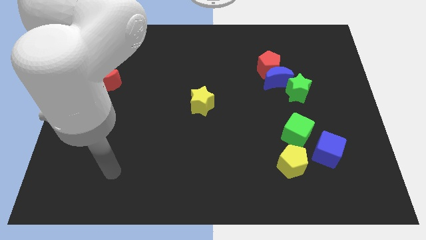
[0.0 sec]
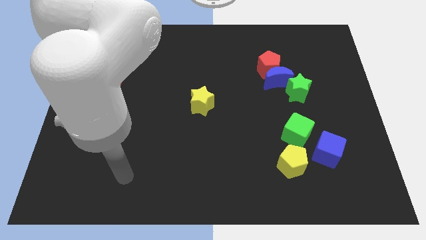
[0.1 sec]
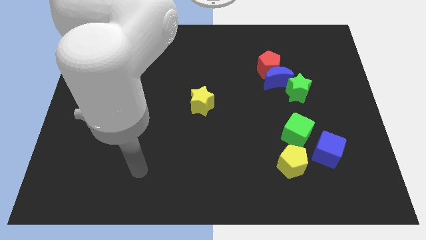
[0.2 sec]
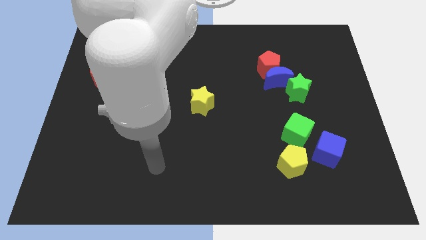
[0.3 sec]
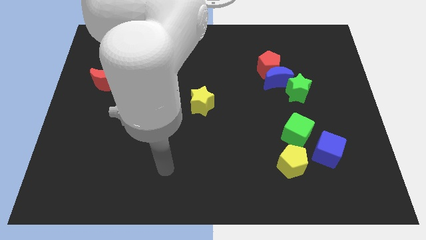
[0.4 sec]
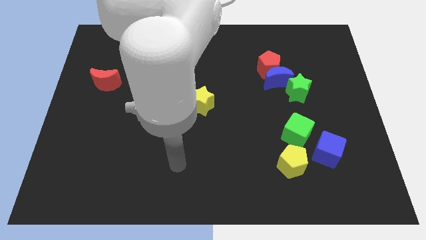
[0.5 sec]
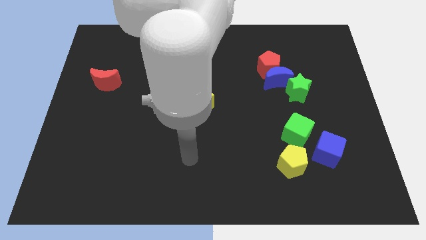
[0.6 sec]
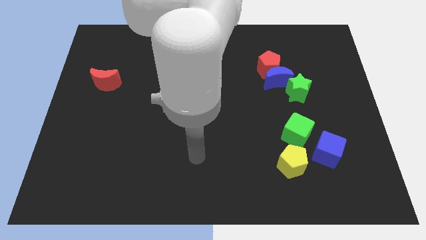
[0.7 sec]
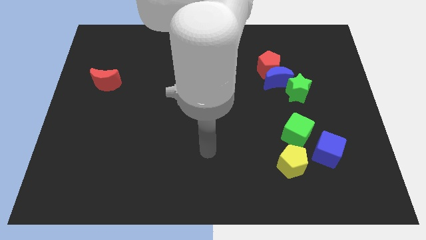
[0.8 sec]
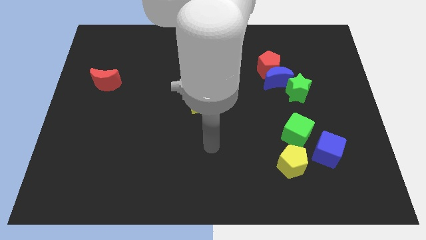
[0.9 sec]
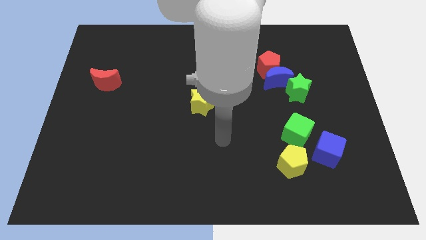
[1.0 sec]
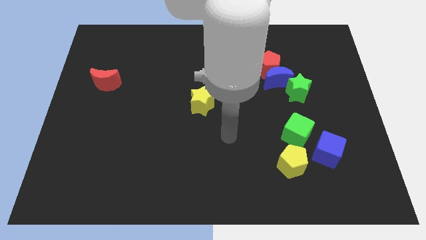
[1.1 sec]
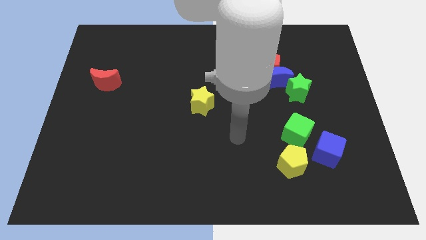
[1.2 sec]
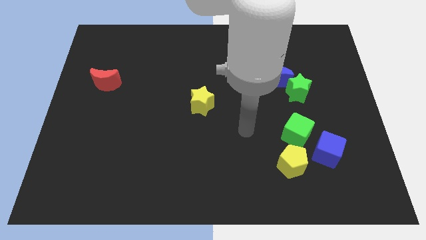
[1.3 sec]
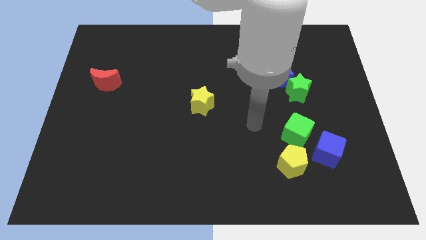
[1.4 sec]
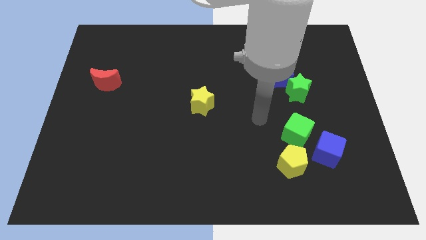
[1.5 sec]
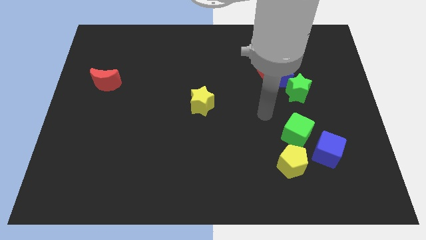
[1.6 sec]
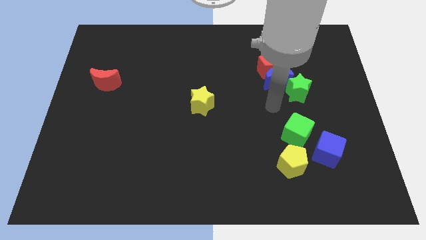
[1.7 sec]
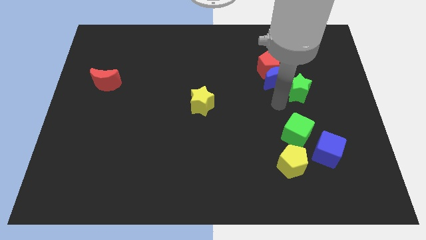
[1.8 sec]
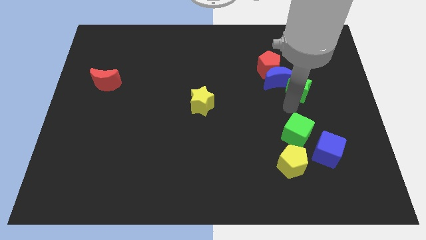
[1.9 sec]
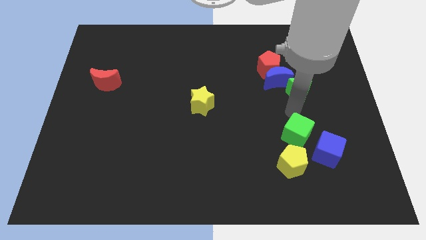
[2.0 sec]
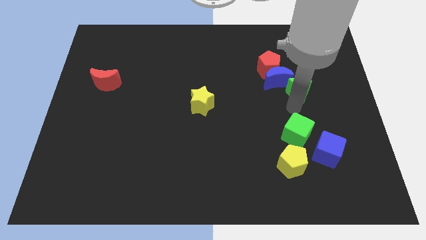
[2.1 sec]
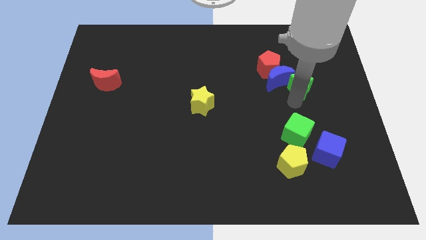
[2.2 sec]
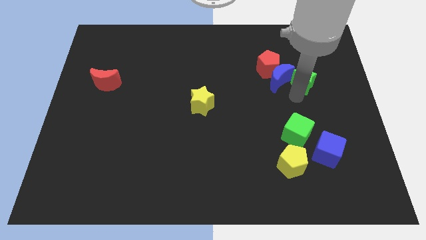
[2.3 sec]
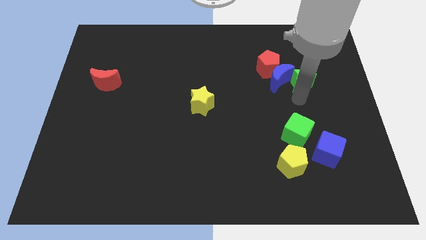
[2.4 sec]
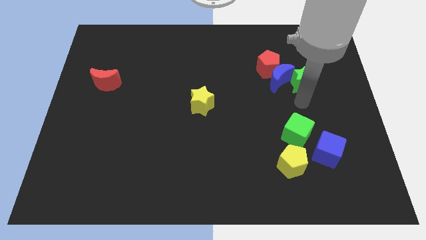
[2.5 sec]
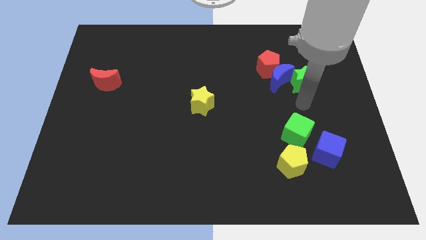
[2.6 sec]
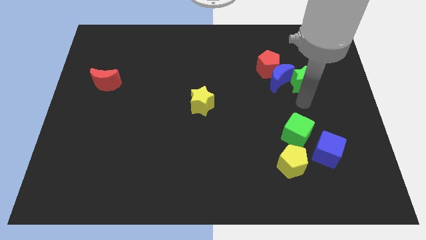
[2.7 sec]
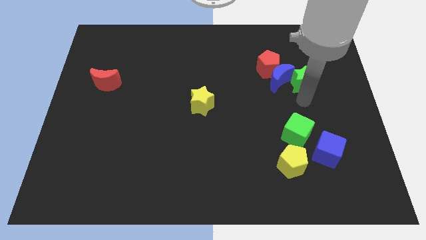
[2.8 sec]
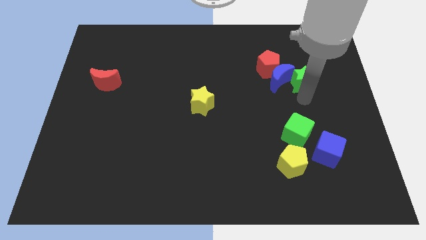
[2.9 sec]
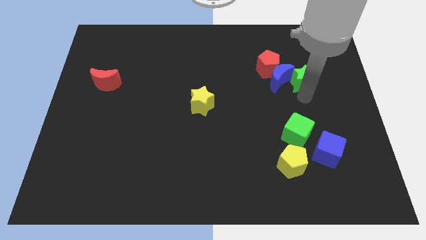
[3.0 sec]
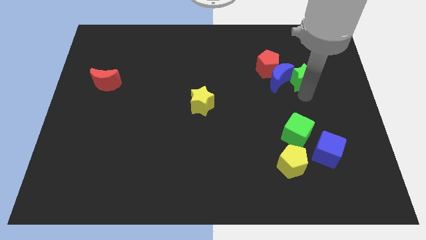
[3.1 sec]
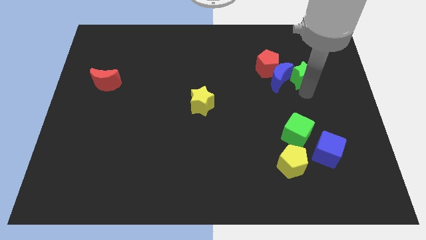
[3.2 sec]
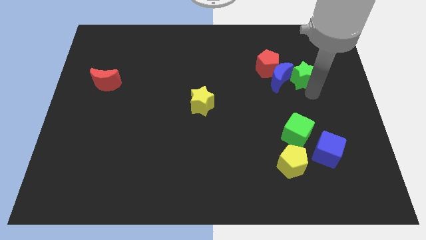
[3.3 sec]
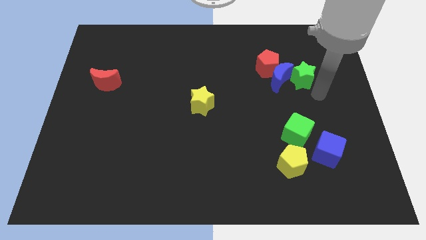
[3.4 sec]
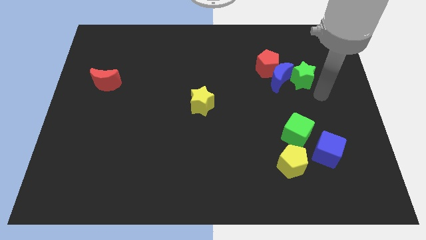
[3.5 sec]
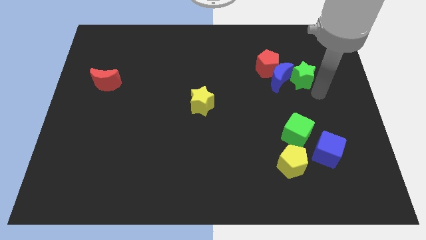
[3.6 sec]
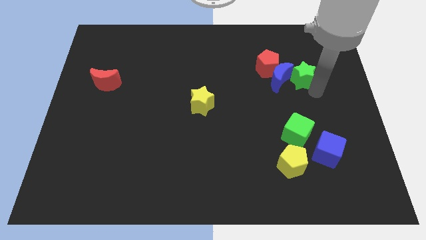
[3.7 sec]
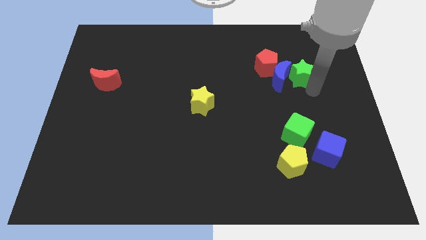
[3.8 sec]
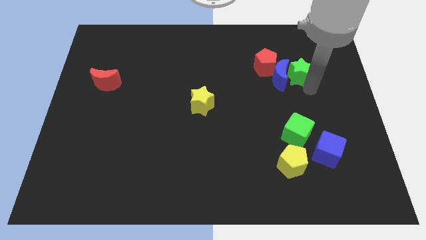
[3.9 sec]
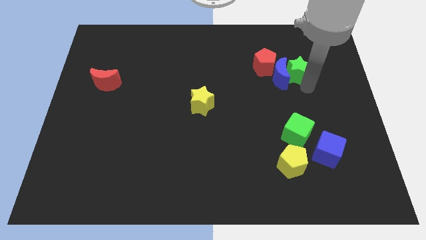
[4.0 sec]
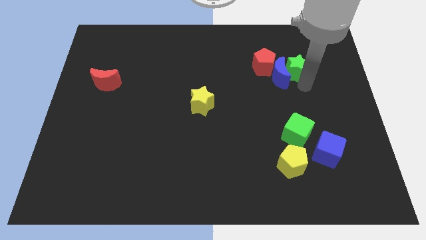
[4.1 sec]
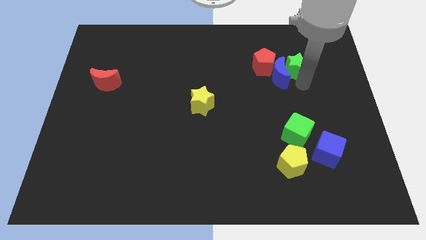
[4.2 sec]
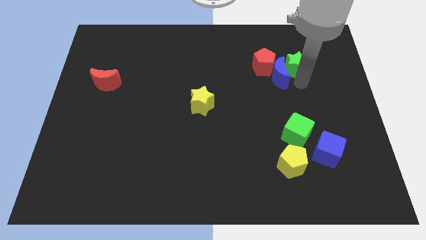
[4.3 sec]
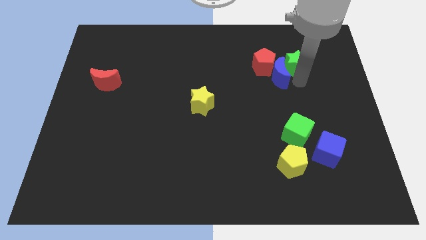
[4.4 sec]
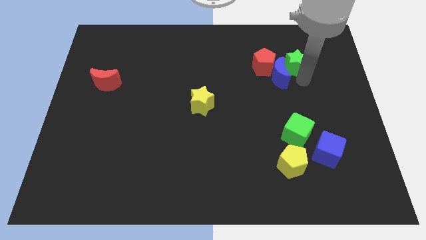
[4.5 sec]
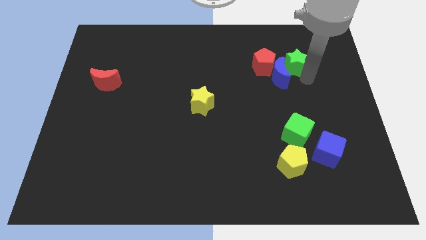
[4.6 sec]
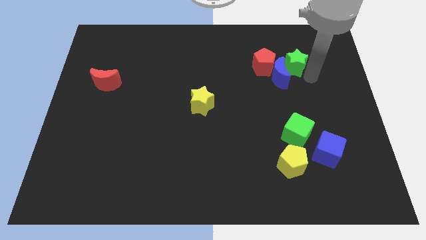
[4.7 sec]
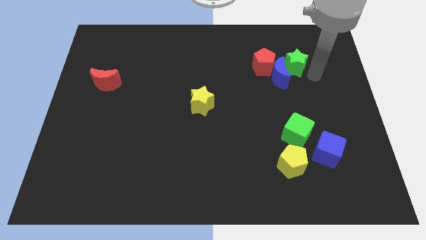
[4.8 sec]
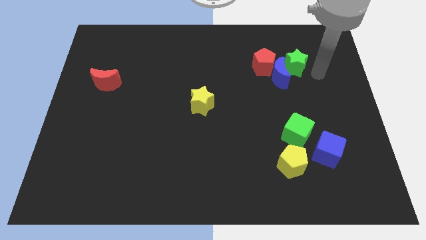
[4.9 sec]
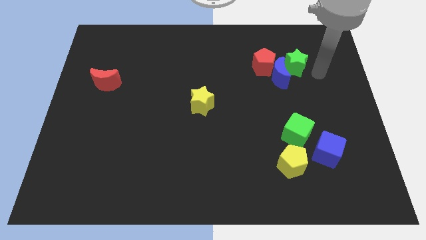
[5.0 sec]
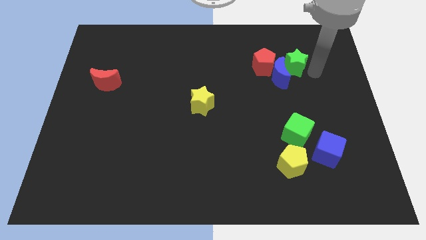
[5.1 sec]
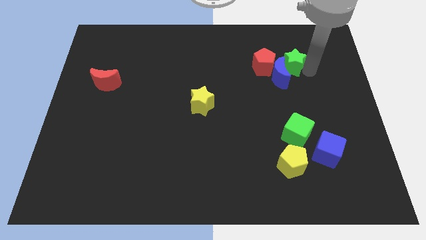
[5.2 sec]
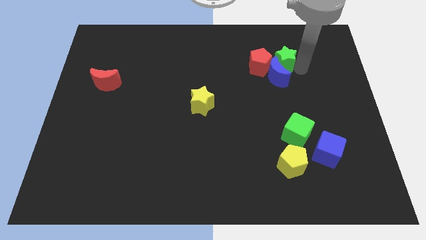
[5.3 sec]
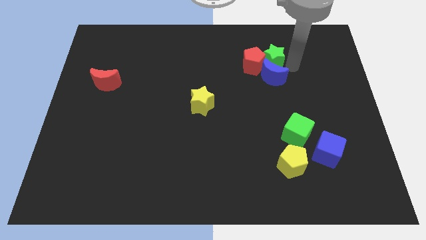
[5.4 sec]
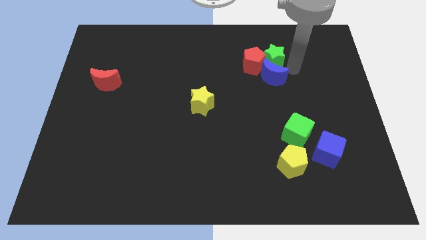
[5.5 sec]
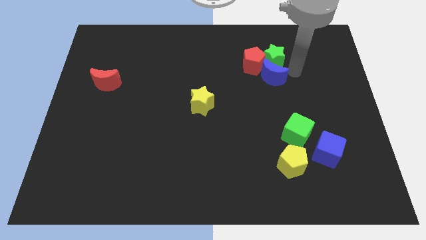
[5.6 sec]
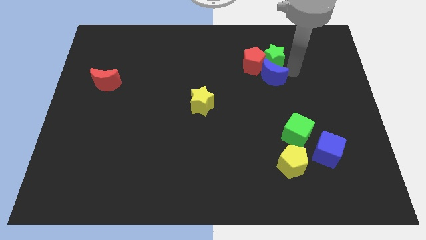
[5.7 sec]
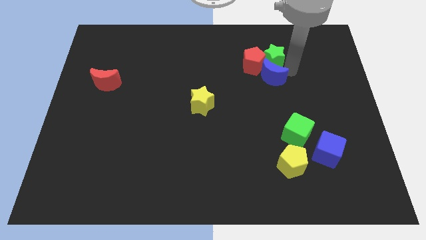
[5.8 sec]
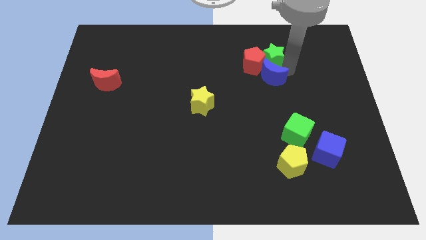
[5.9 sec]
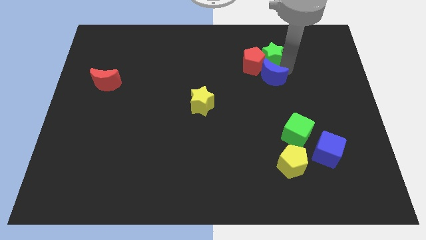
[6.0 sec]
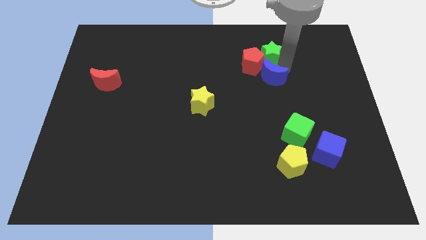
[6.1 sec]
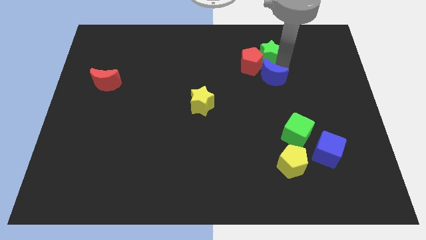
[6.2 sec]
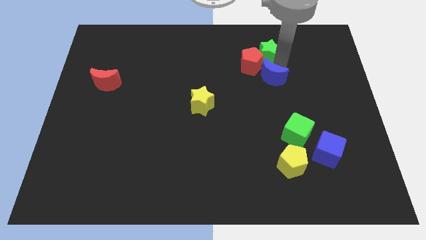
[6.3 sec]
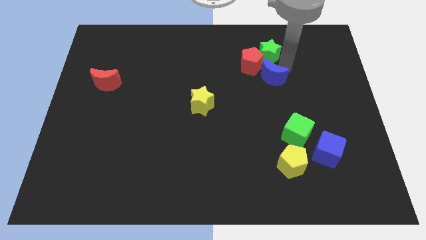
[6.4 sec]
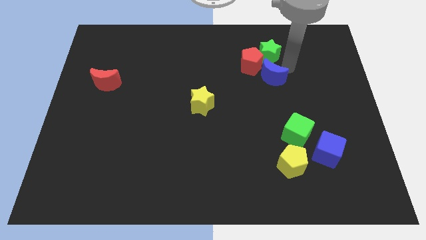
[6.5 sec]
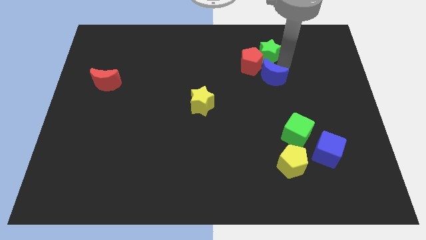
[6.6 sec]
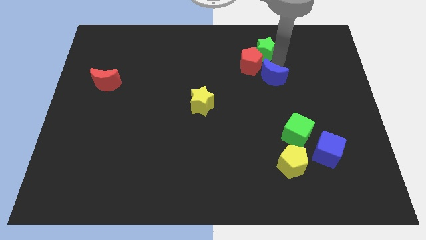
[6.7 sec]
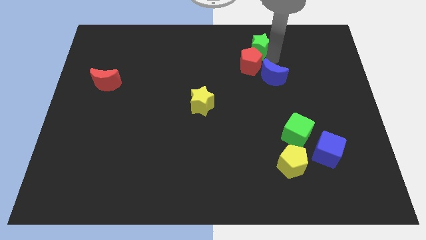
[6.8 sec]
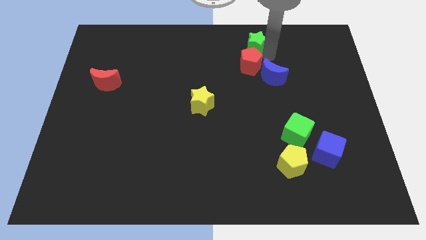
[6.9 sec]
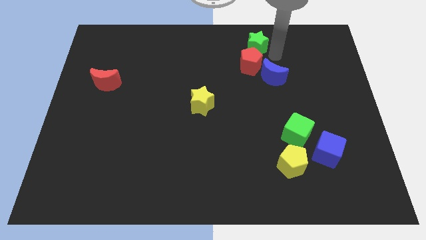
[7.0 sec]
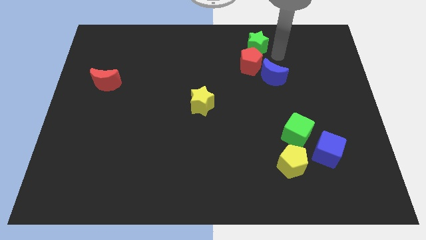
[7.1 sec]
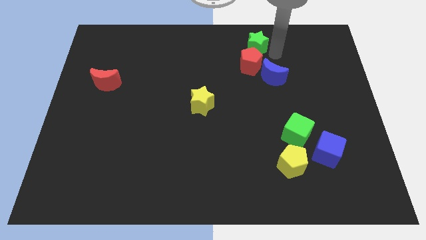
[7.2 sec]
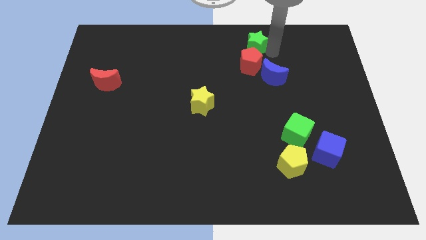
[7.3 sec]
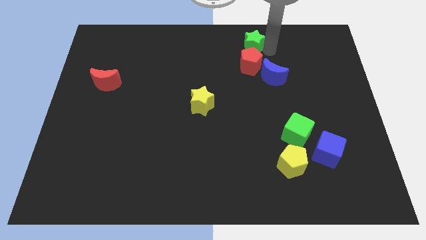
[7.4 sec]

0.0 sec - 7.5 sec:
move the green star to the top side
